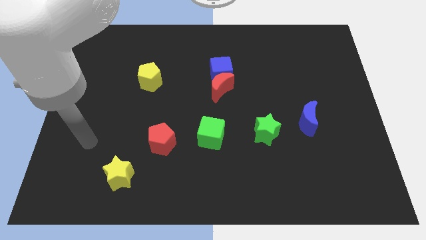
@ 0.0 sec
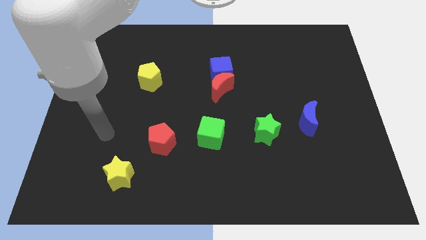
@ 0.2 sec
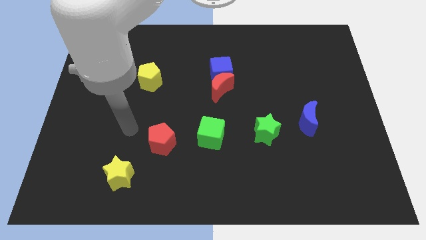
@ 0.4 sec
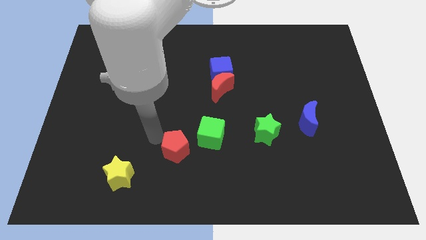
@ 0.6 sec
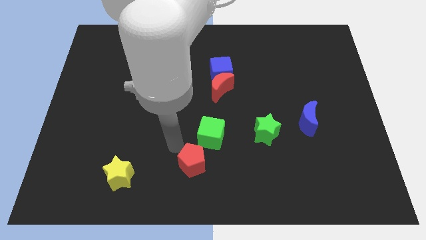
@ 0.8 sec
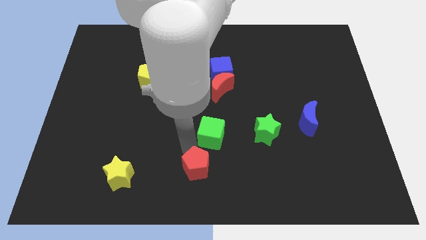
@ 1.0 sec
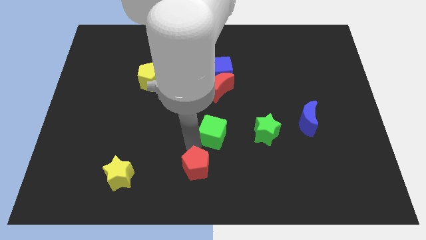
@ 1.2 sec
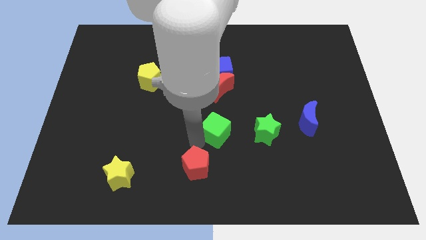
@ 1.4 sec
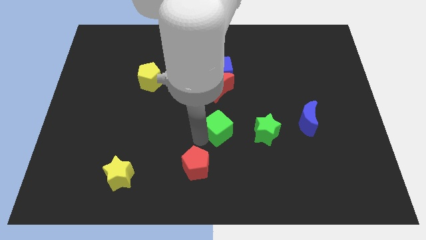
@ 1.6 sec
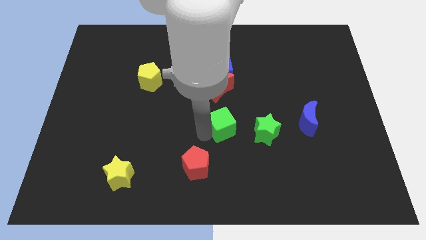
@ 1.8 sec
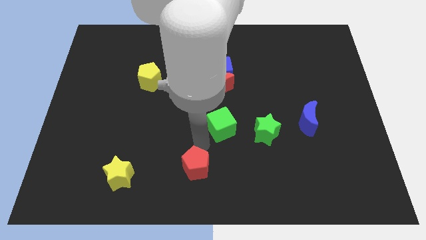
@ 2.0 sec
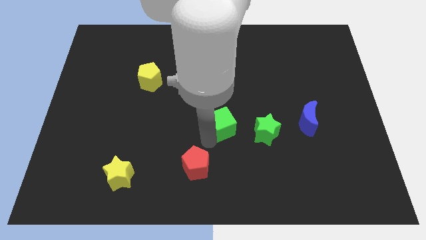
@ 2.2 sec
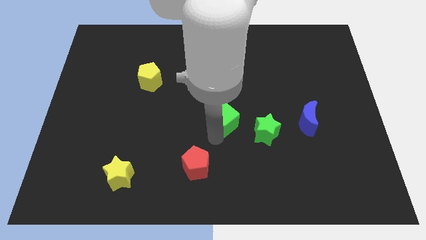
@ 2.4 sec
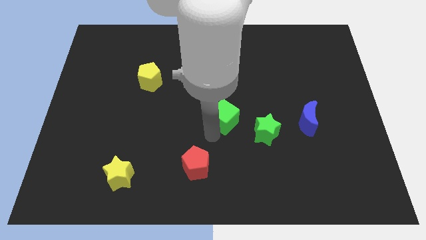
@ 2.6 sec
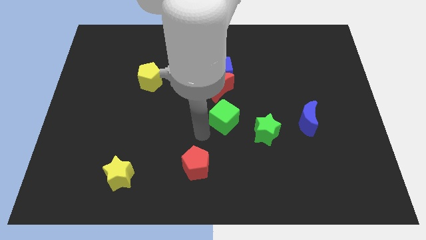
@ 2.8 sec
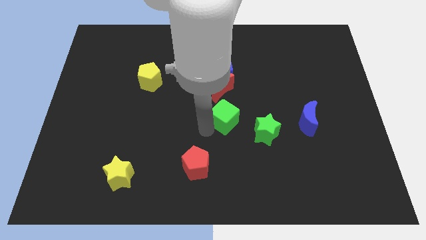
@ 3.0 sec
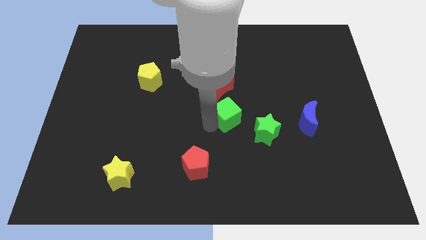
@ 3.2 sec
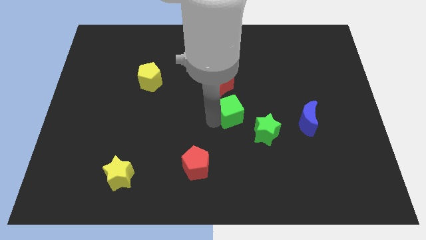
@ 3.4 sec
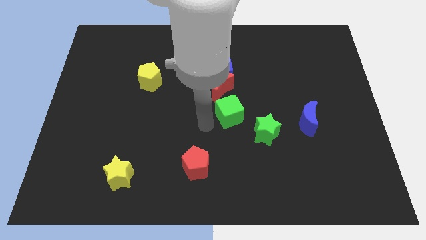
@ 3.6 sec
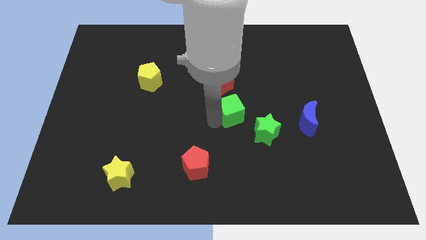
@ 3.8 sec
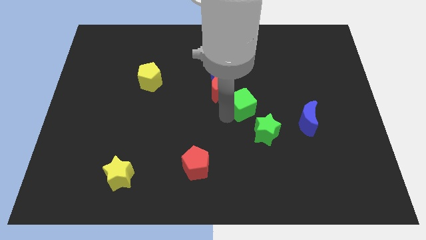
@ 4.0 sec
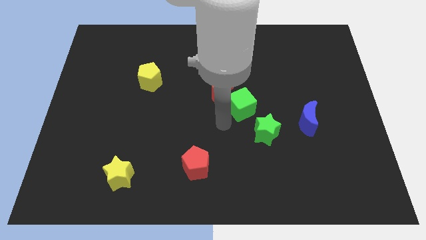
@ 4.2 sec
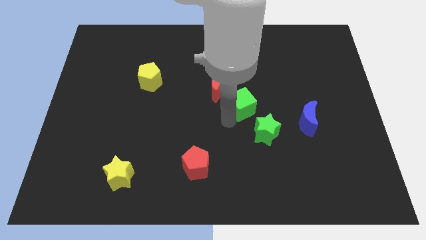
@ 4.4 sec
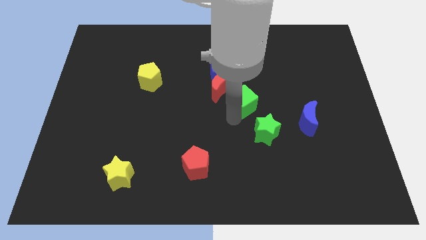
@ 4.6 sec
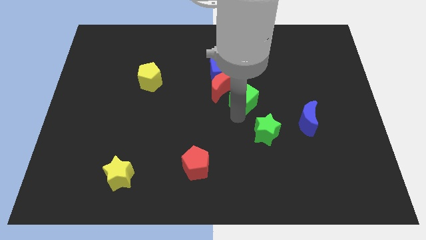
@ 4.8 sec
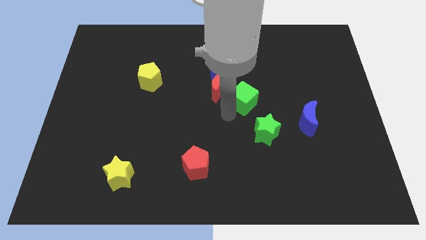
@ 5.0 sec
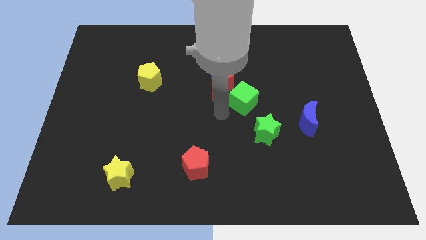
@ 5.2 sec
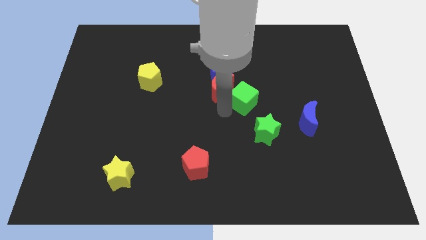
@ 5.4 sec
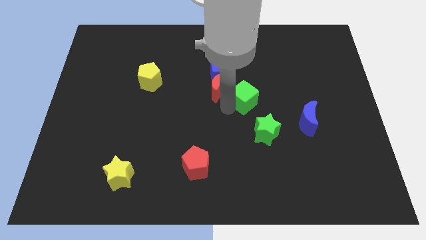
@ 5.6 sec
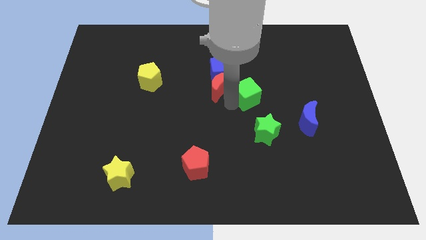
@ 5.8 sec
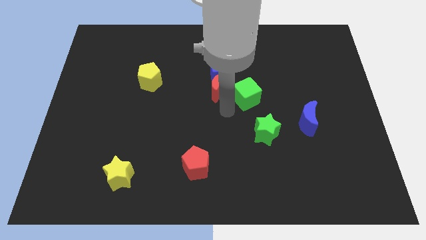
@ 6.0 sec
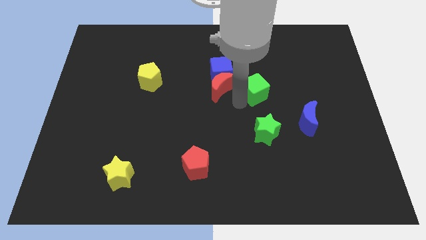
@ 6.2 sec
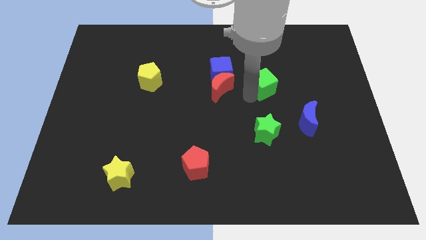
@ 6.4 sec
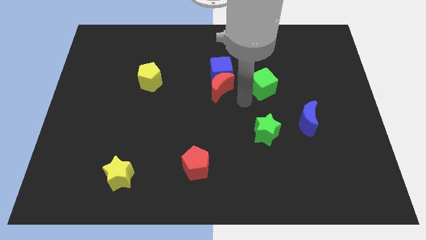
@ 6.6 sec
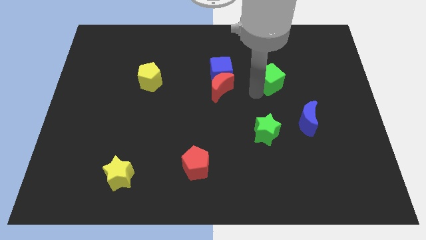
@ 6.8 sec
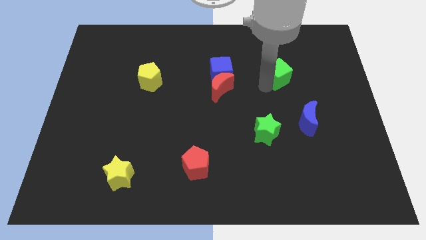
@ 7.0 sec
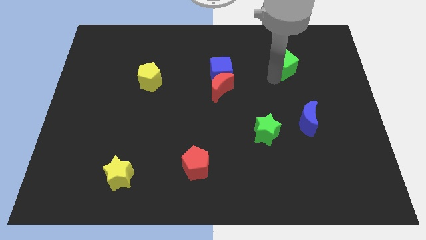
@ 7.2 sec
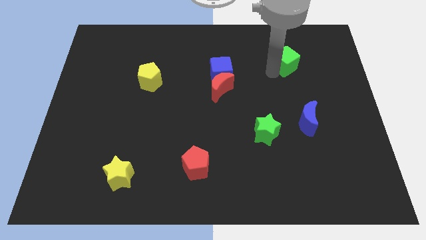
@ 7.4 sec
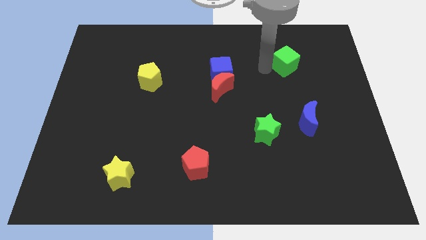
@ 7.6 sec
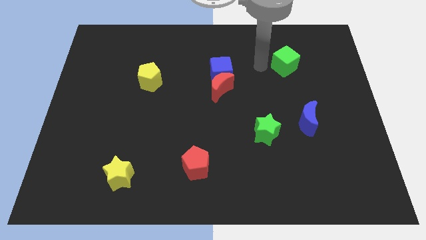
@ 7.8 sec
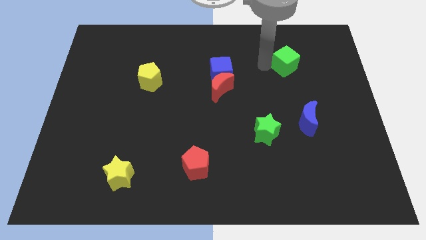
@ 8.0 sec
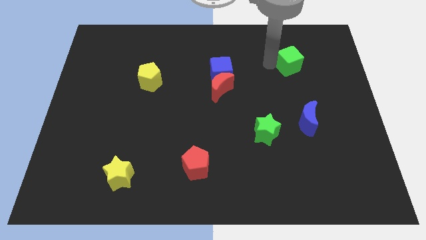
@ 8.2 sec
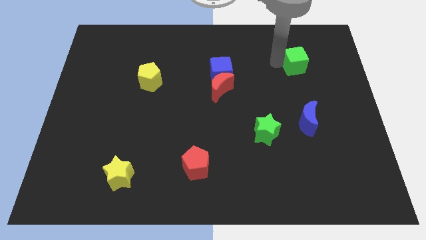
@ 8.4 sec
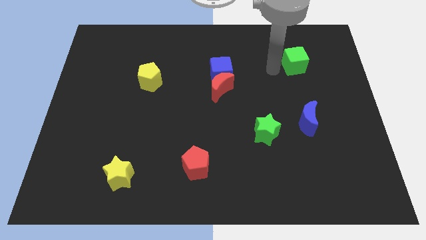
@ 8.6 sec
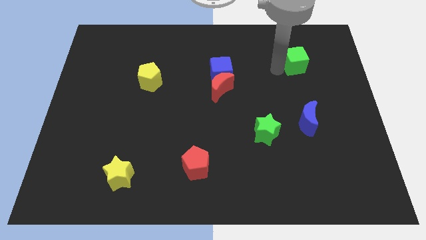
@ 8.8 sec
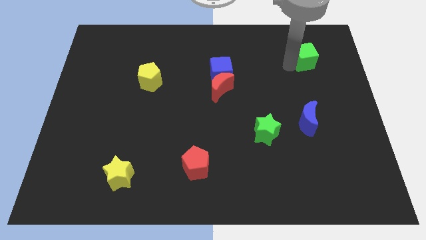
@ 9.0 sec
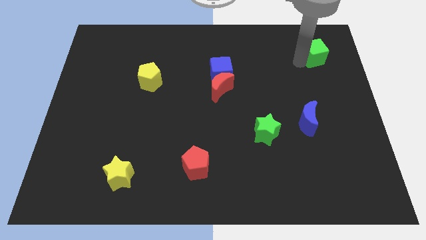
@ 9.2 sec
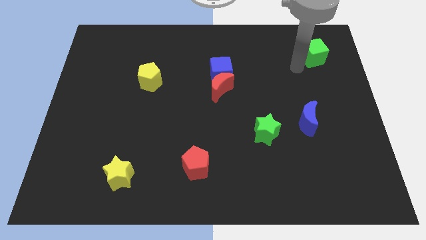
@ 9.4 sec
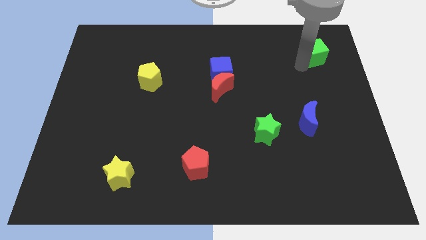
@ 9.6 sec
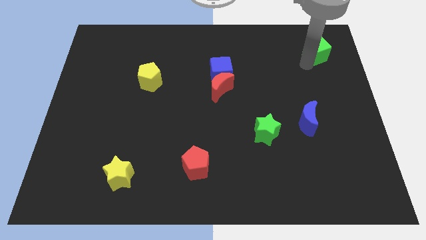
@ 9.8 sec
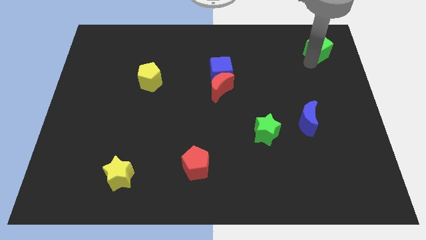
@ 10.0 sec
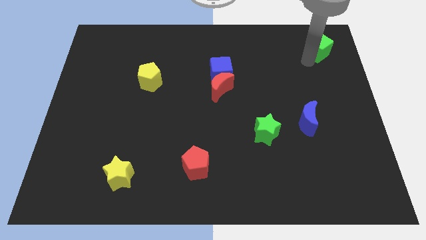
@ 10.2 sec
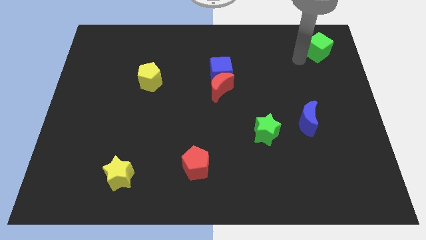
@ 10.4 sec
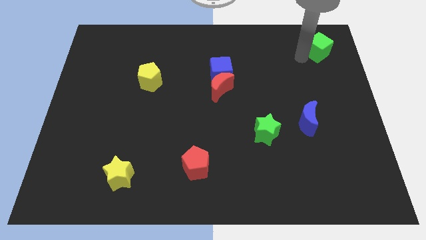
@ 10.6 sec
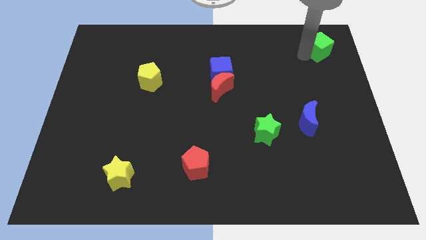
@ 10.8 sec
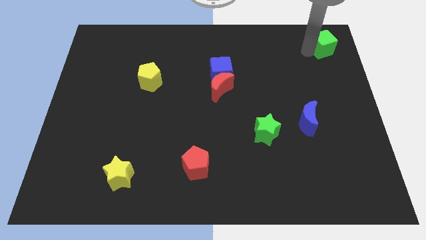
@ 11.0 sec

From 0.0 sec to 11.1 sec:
move the green cube to the top right corner
